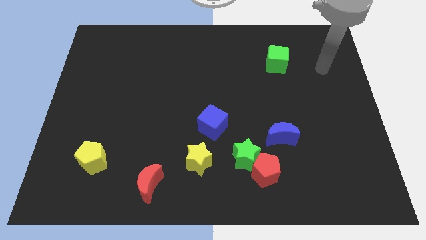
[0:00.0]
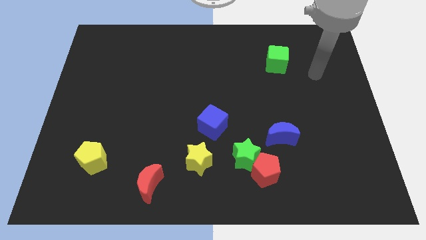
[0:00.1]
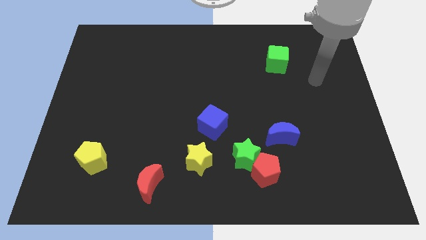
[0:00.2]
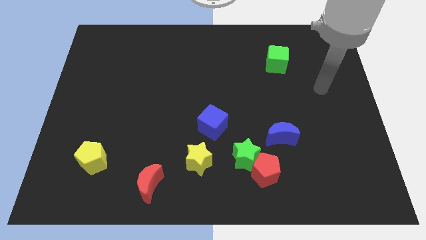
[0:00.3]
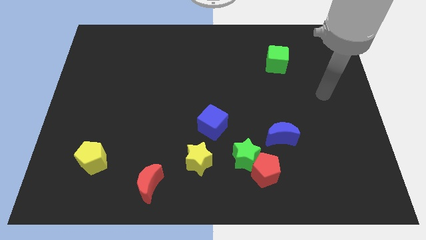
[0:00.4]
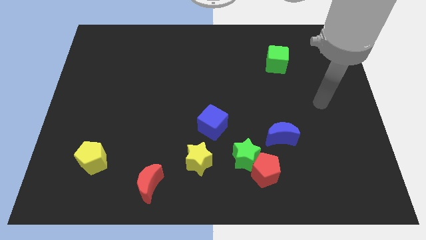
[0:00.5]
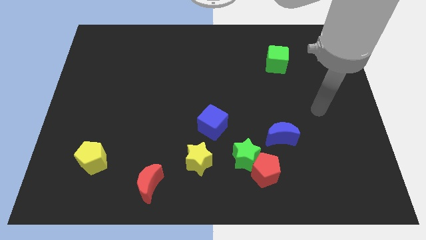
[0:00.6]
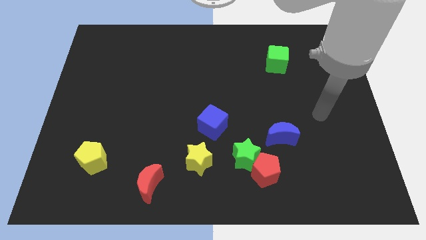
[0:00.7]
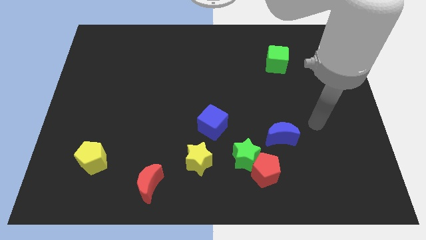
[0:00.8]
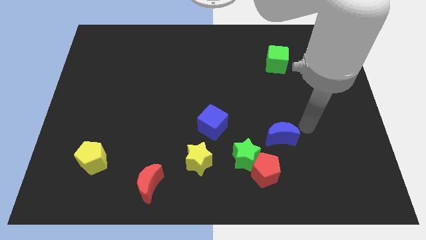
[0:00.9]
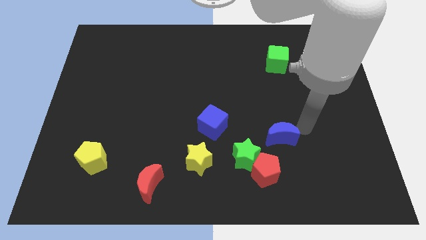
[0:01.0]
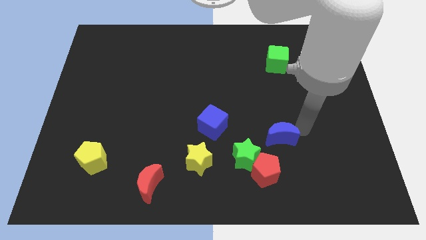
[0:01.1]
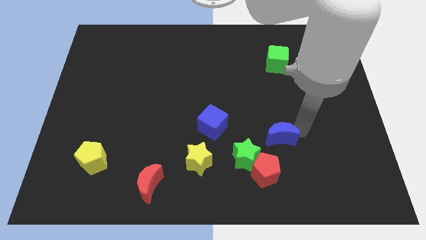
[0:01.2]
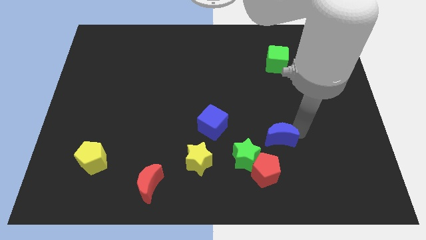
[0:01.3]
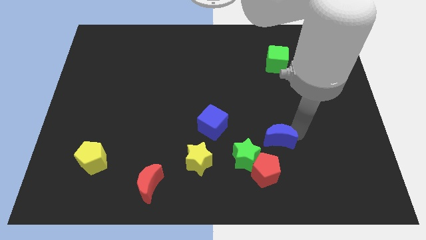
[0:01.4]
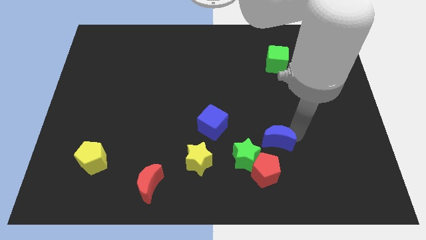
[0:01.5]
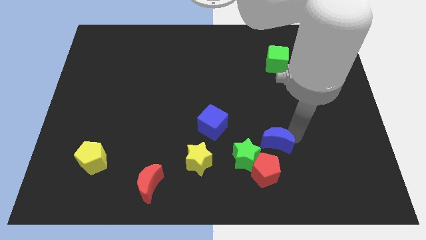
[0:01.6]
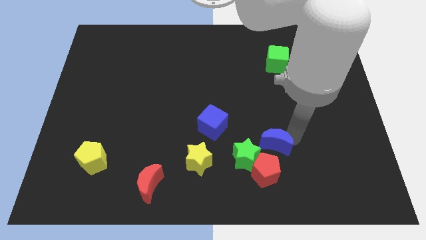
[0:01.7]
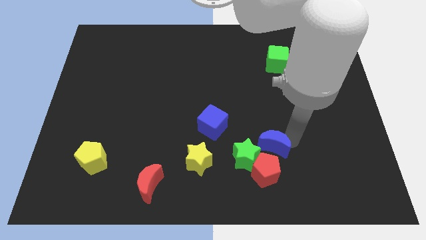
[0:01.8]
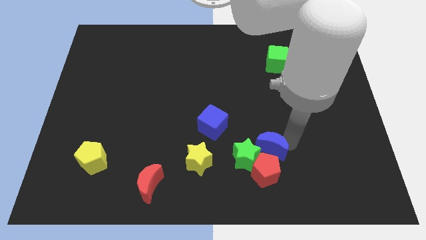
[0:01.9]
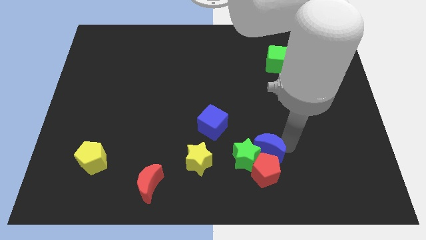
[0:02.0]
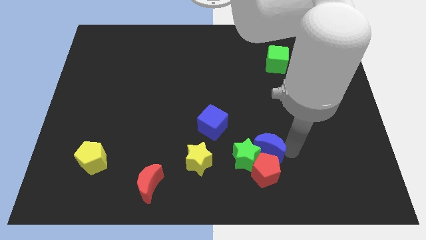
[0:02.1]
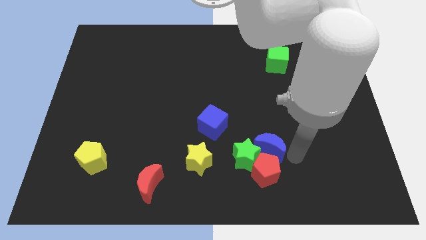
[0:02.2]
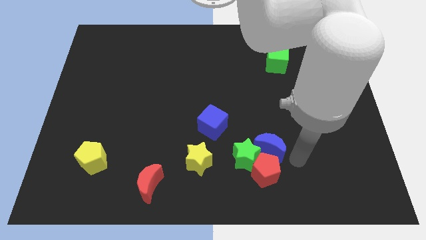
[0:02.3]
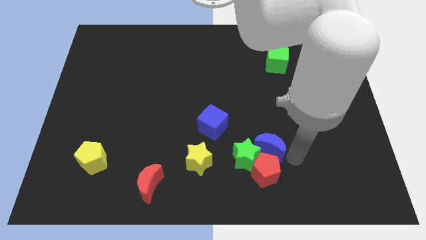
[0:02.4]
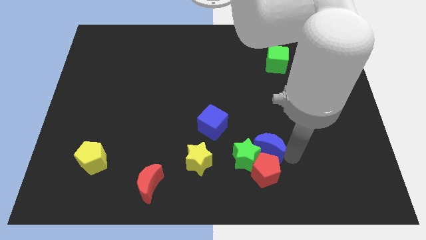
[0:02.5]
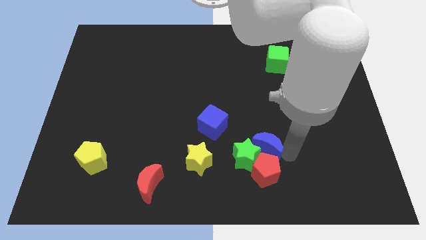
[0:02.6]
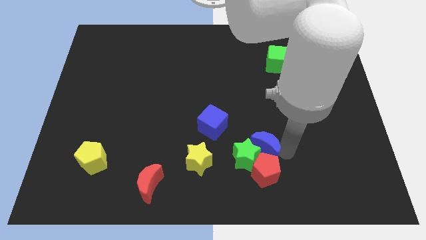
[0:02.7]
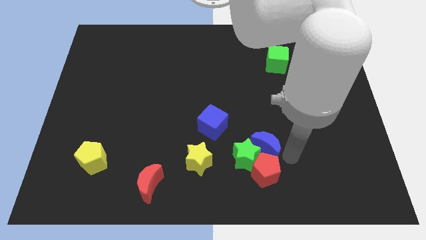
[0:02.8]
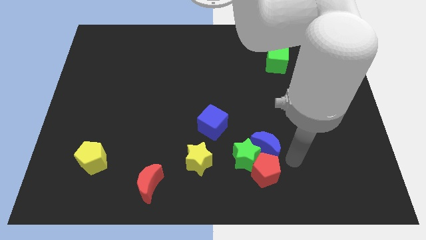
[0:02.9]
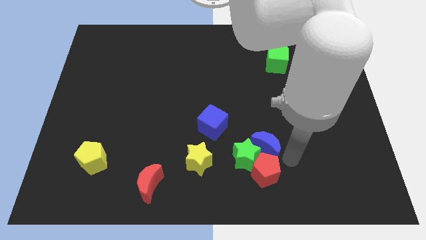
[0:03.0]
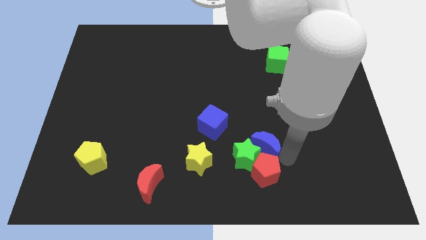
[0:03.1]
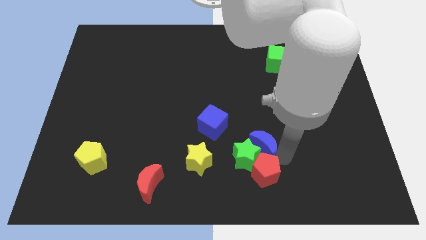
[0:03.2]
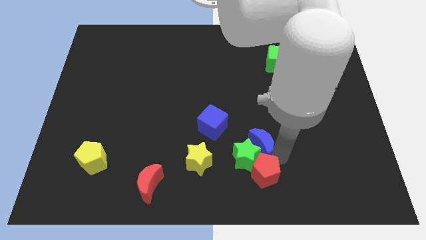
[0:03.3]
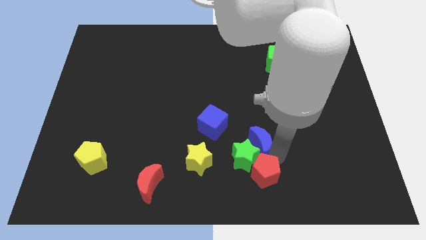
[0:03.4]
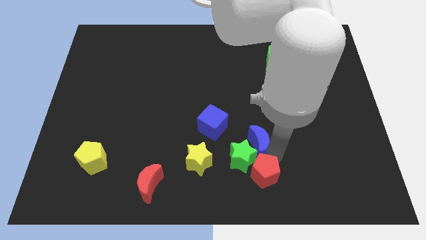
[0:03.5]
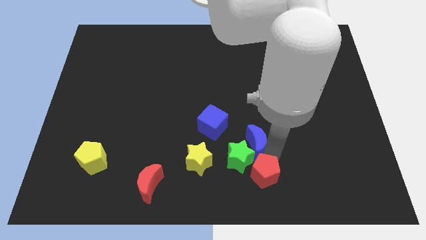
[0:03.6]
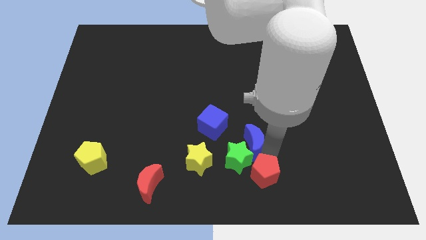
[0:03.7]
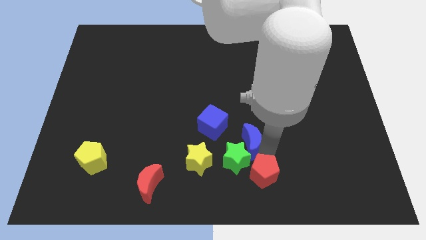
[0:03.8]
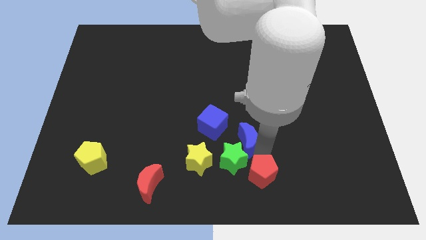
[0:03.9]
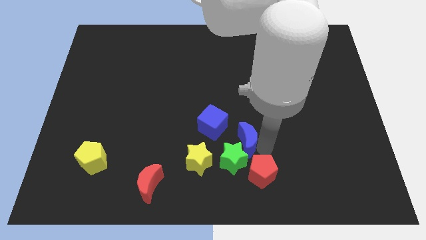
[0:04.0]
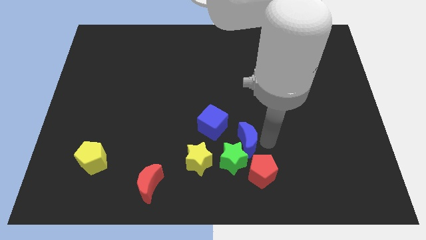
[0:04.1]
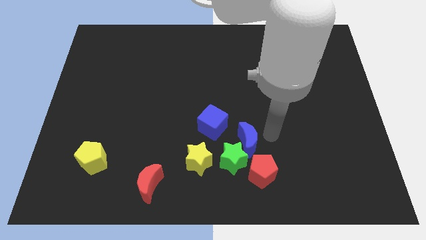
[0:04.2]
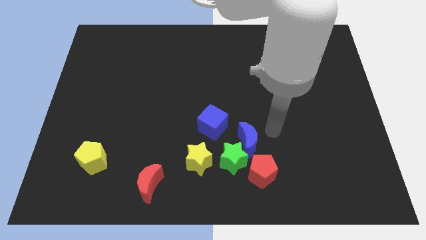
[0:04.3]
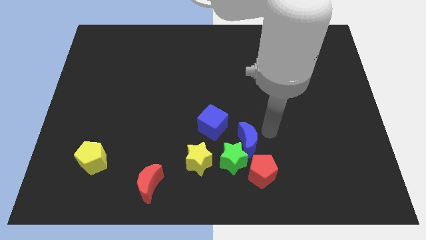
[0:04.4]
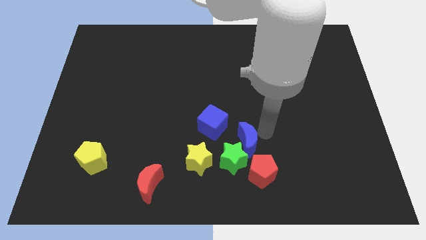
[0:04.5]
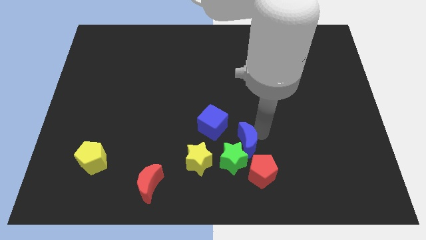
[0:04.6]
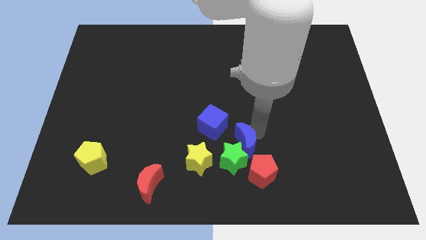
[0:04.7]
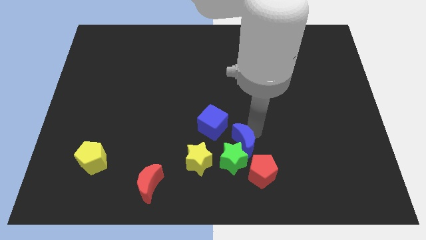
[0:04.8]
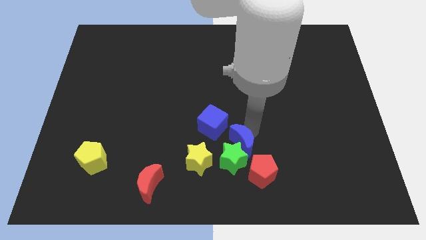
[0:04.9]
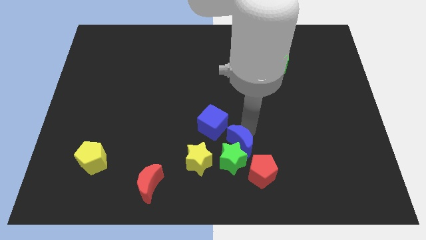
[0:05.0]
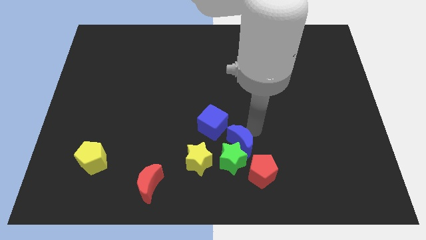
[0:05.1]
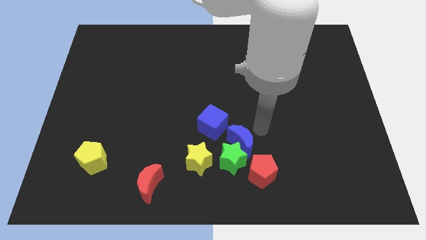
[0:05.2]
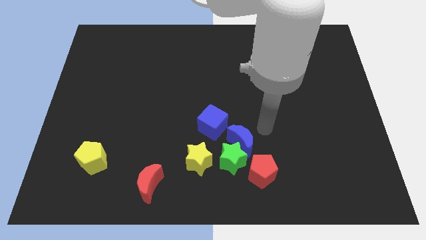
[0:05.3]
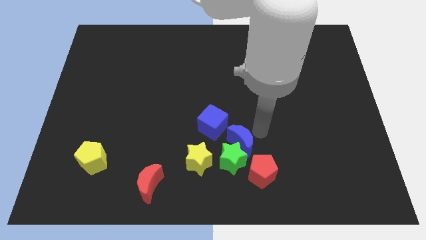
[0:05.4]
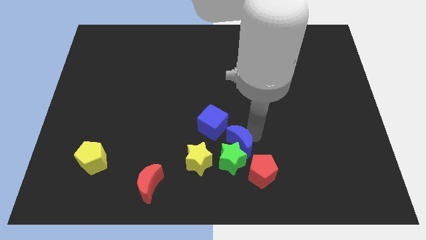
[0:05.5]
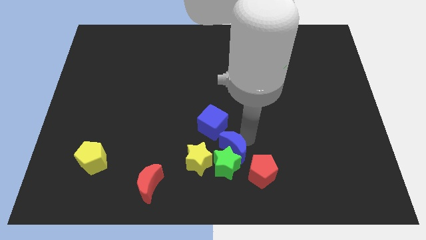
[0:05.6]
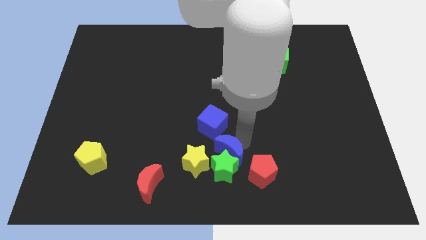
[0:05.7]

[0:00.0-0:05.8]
put the blue moon left of the red pentagon

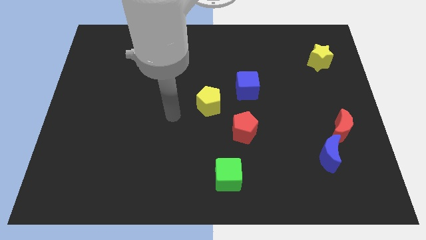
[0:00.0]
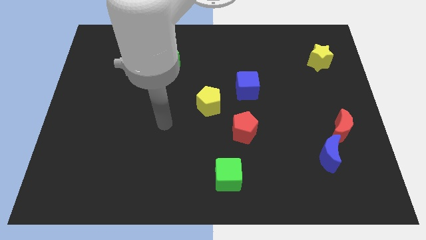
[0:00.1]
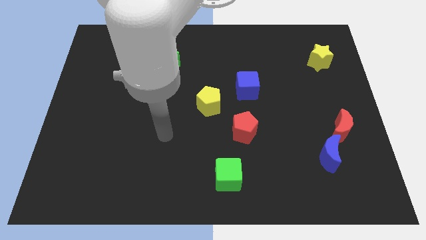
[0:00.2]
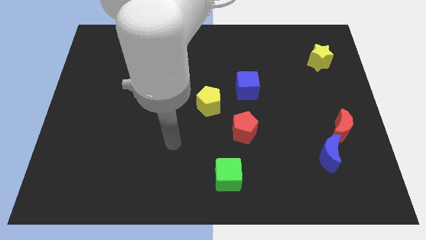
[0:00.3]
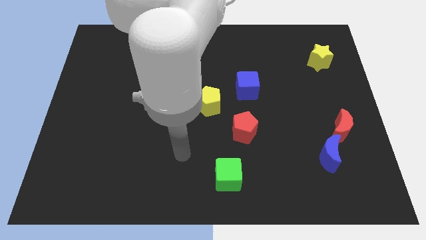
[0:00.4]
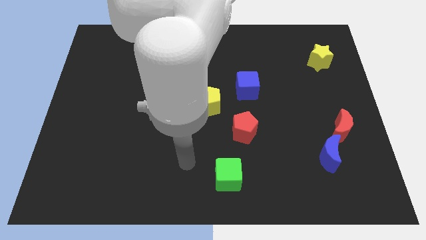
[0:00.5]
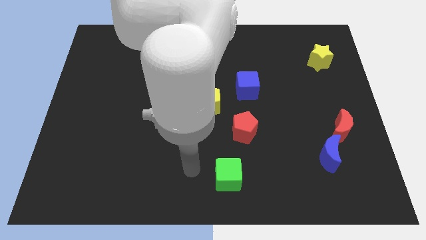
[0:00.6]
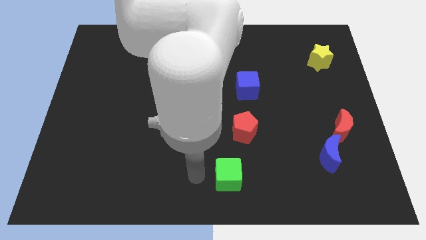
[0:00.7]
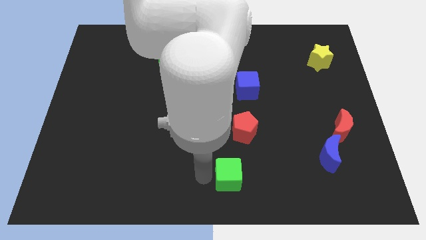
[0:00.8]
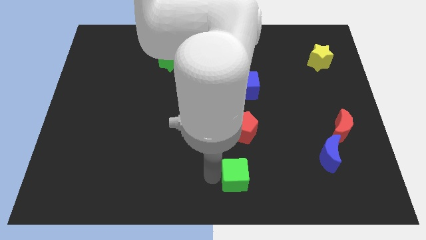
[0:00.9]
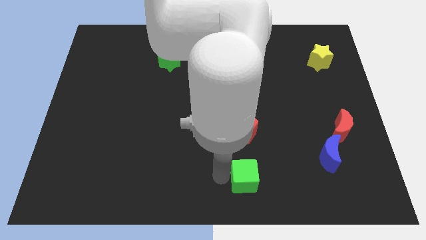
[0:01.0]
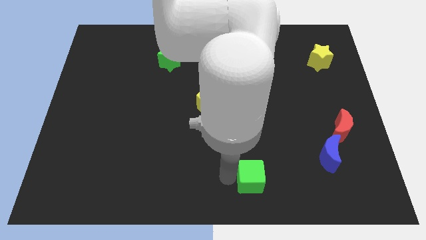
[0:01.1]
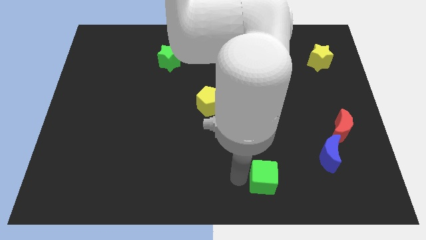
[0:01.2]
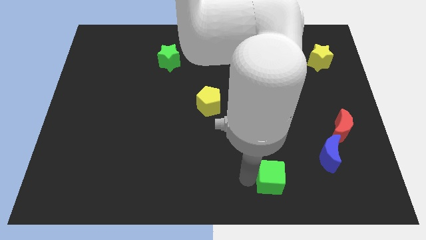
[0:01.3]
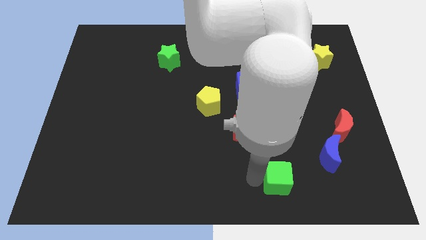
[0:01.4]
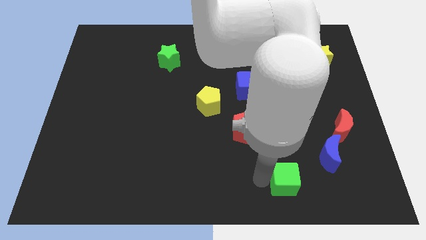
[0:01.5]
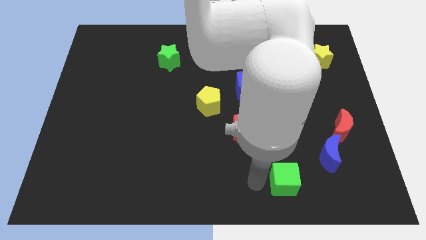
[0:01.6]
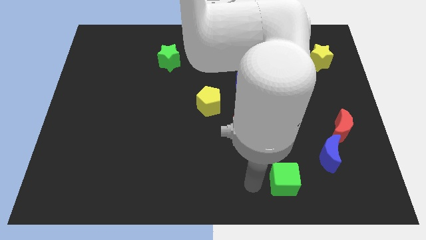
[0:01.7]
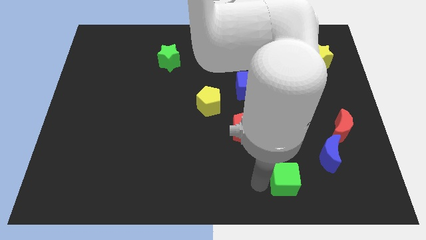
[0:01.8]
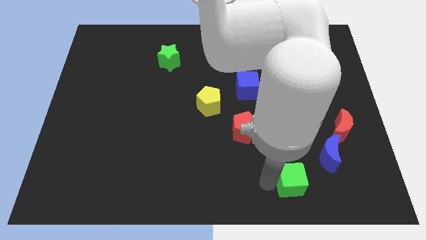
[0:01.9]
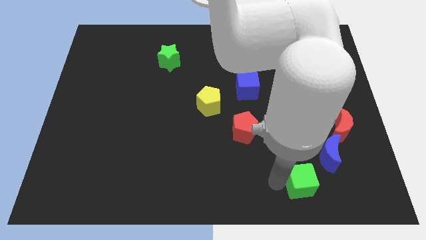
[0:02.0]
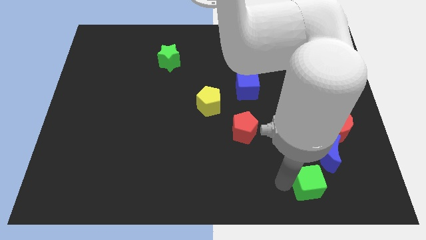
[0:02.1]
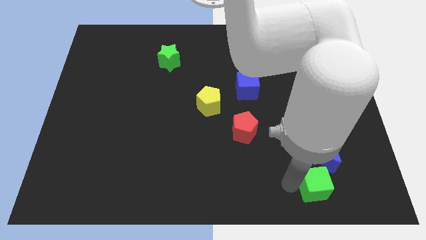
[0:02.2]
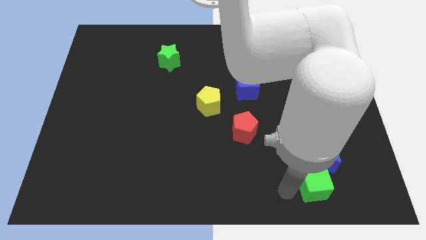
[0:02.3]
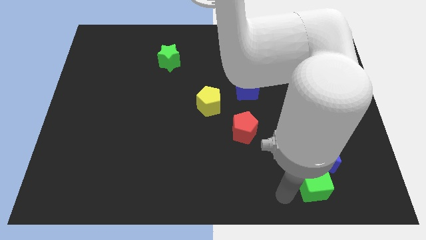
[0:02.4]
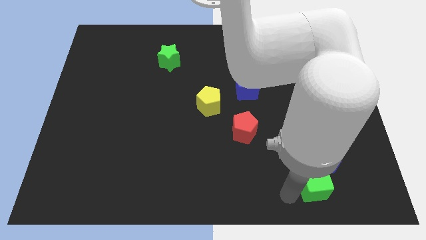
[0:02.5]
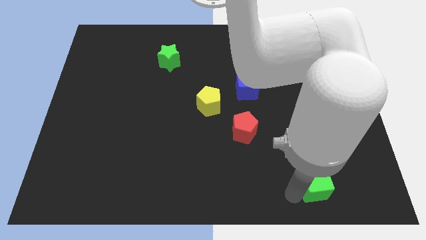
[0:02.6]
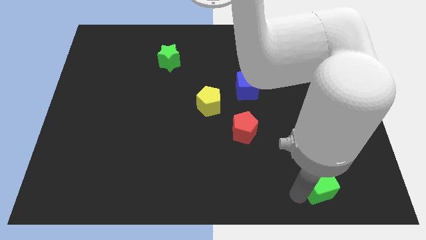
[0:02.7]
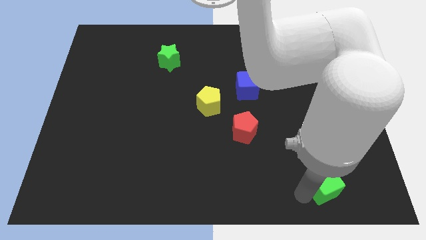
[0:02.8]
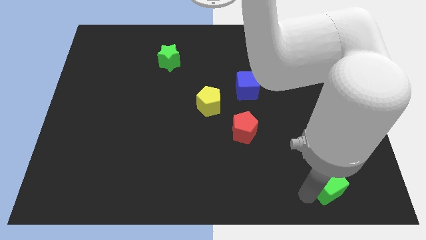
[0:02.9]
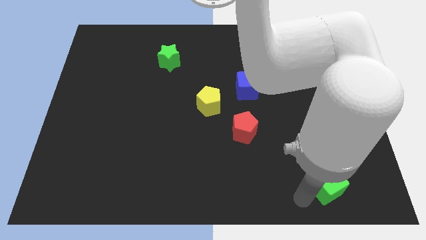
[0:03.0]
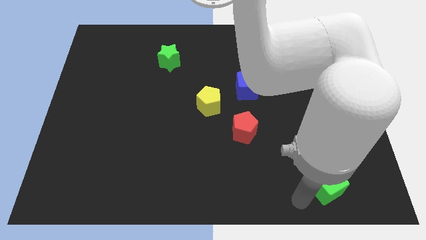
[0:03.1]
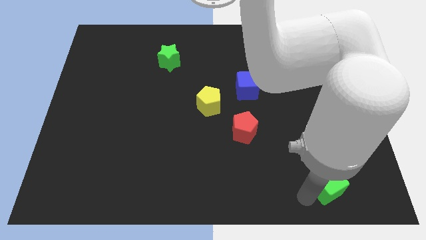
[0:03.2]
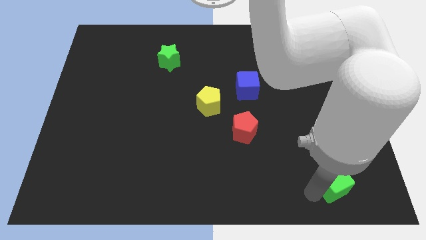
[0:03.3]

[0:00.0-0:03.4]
put the green cube to the bottom side of the red moon
